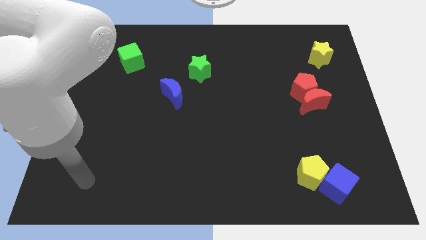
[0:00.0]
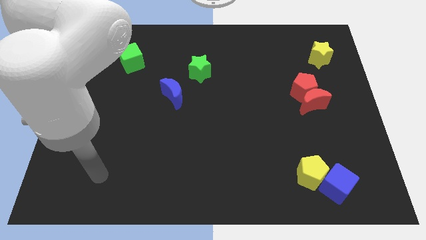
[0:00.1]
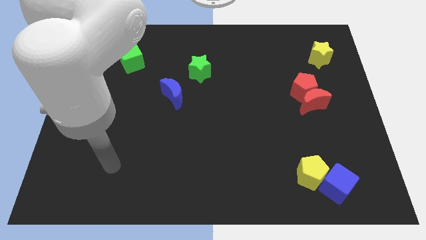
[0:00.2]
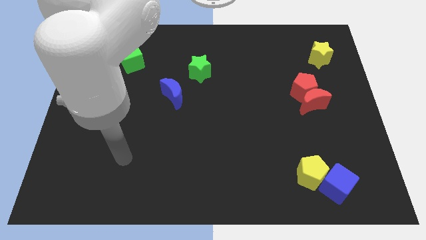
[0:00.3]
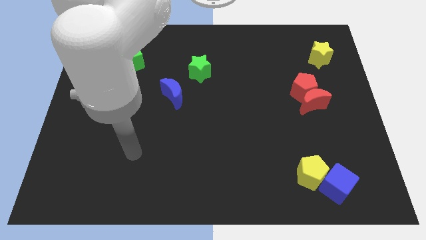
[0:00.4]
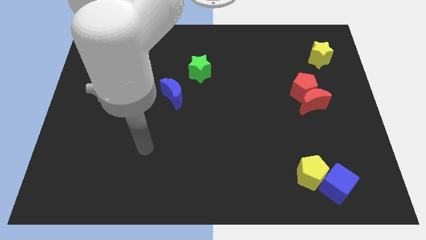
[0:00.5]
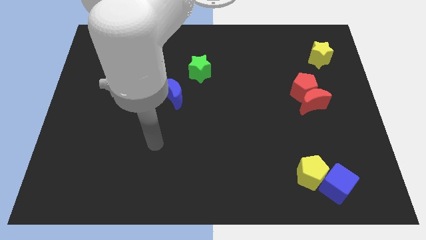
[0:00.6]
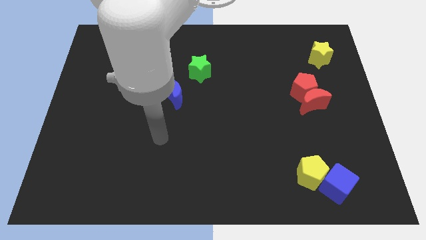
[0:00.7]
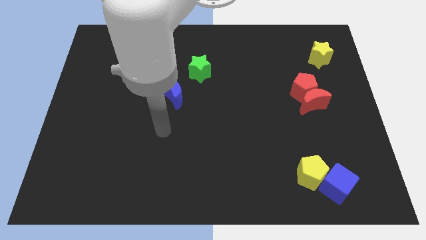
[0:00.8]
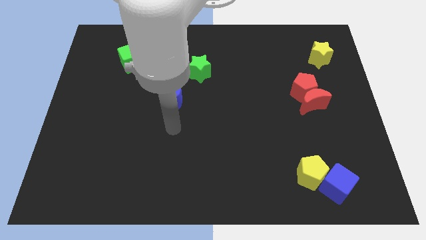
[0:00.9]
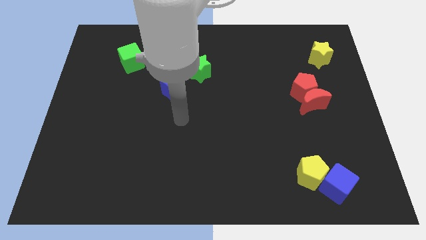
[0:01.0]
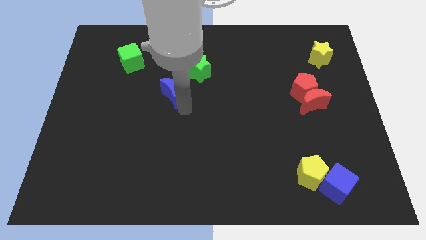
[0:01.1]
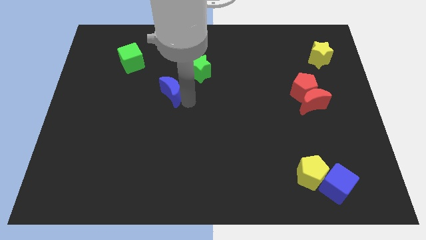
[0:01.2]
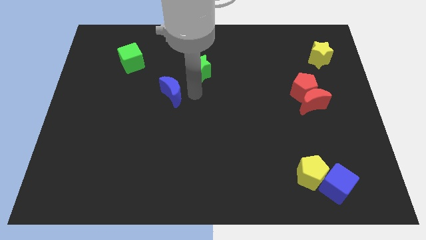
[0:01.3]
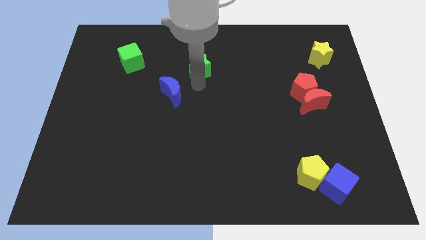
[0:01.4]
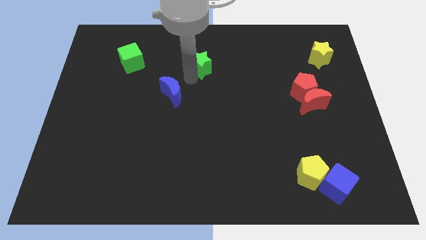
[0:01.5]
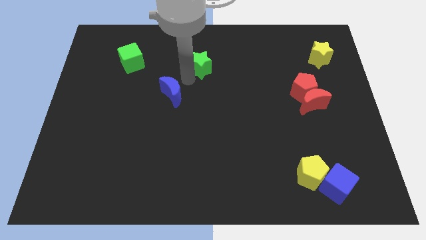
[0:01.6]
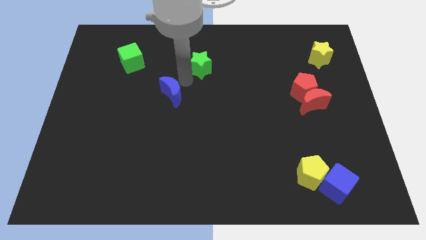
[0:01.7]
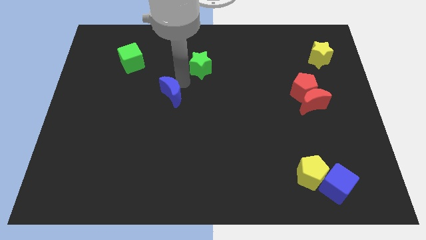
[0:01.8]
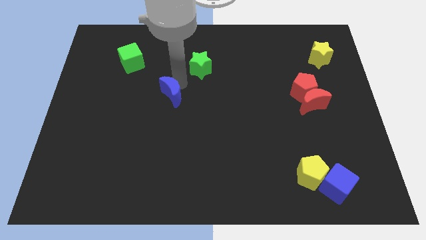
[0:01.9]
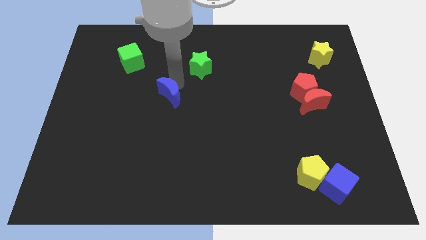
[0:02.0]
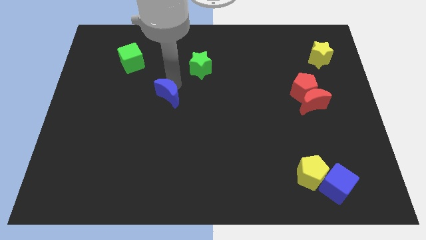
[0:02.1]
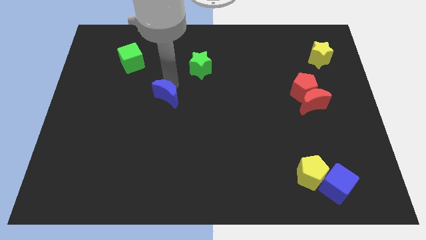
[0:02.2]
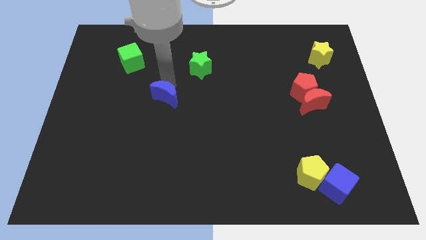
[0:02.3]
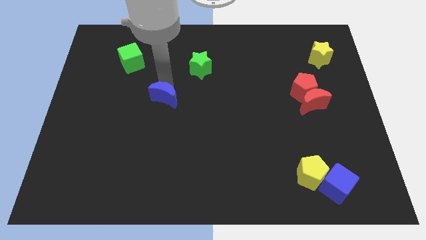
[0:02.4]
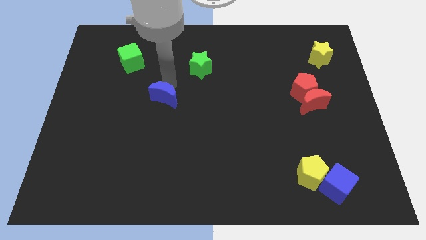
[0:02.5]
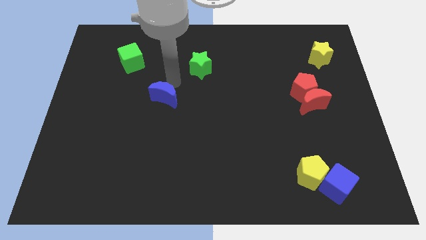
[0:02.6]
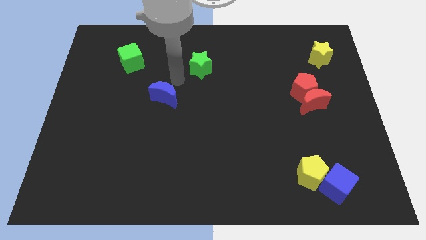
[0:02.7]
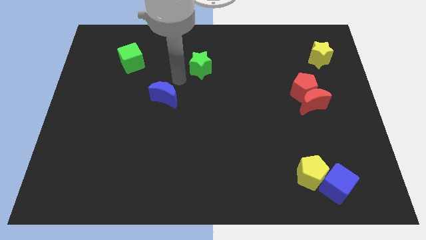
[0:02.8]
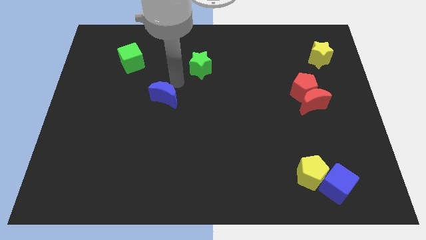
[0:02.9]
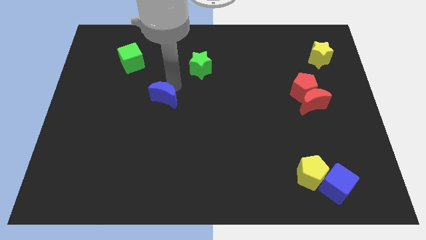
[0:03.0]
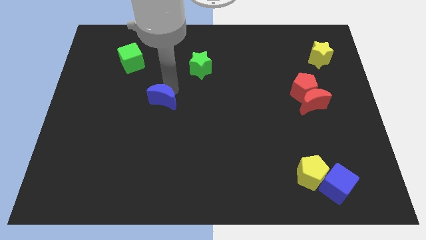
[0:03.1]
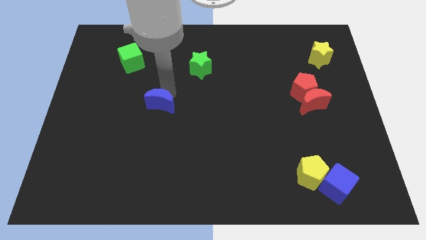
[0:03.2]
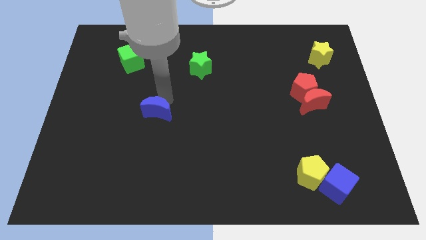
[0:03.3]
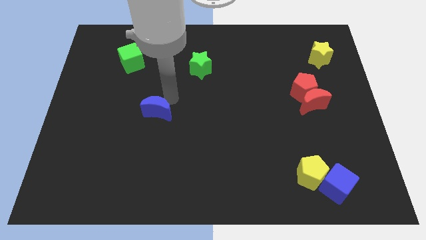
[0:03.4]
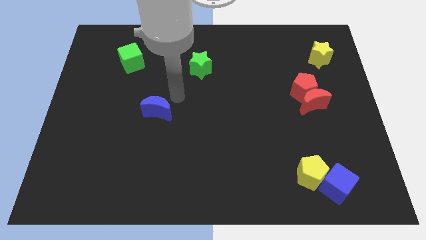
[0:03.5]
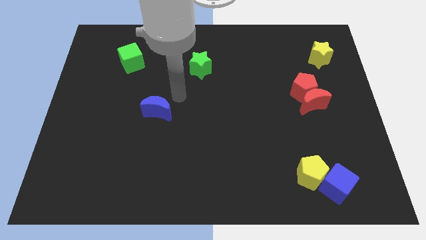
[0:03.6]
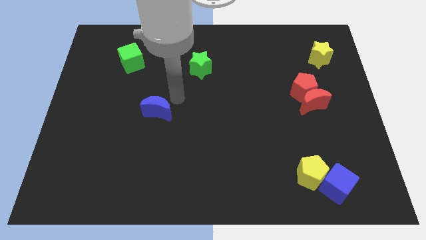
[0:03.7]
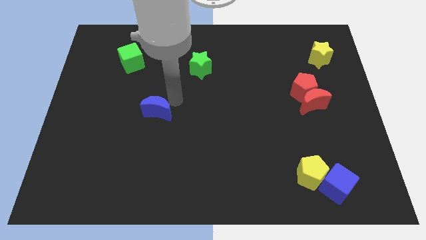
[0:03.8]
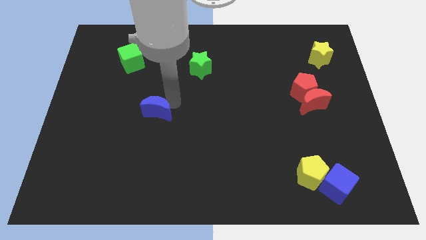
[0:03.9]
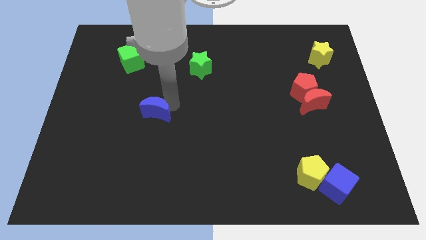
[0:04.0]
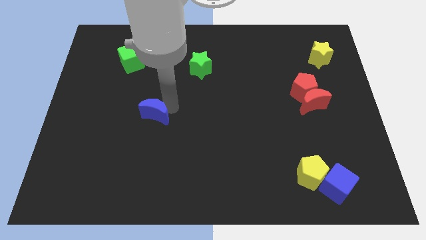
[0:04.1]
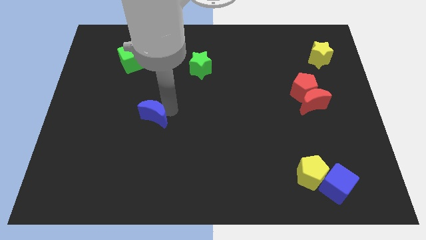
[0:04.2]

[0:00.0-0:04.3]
slightly push the blue moon diagonally down and to the left

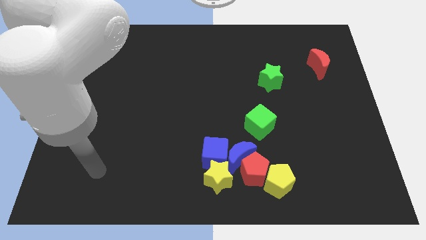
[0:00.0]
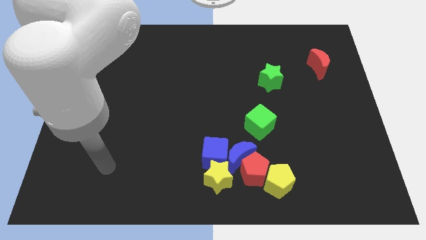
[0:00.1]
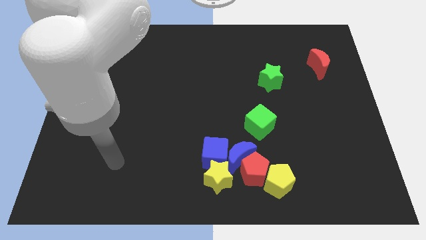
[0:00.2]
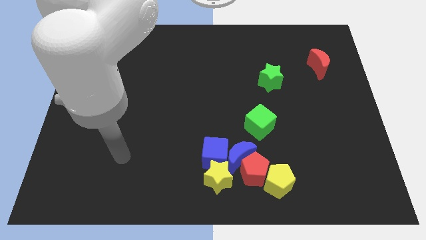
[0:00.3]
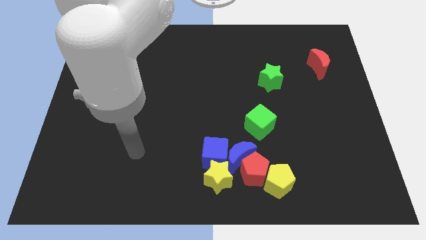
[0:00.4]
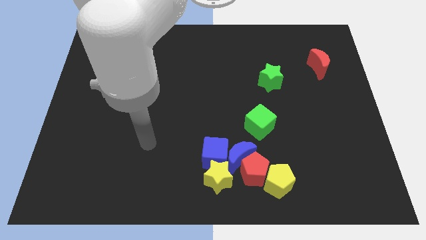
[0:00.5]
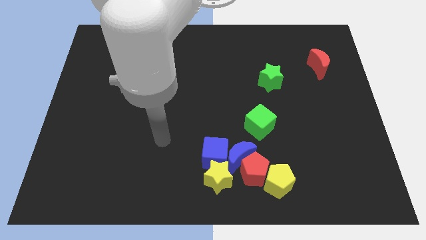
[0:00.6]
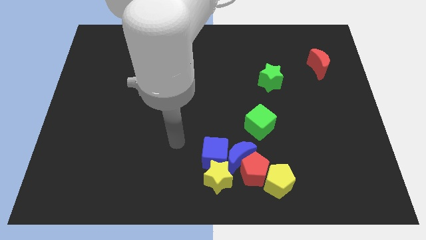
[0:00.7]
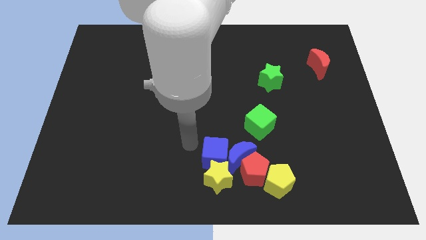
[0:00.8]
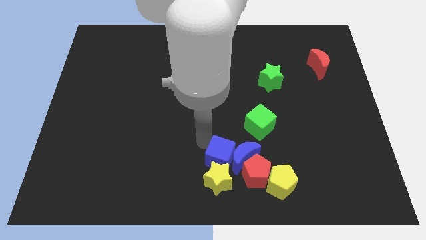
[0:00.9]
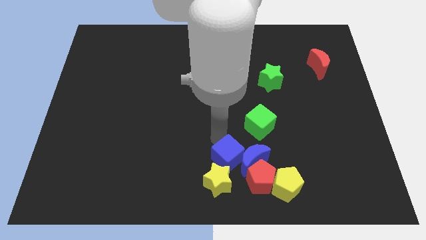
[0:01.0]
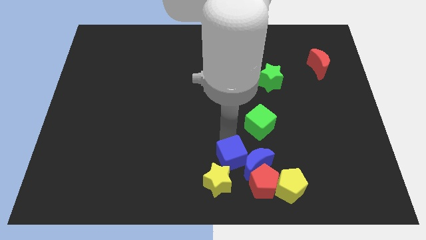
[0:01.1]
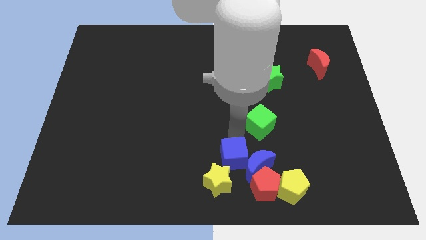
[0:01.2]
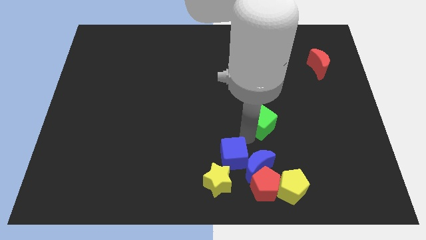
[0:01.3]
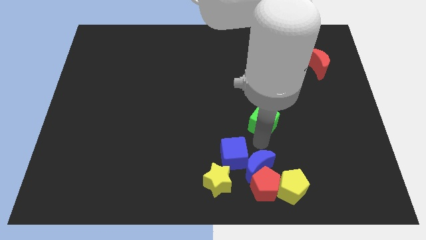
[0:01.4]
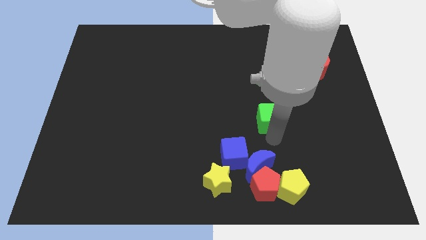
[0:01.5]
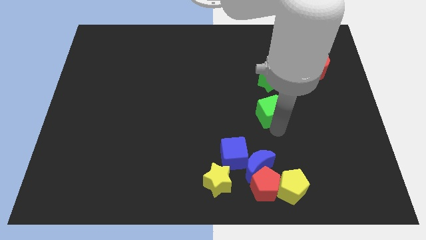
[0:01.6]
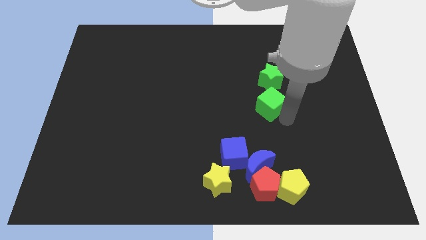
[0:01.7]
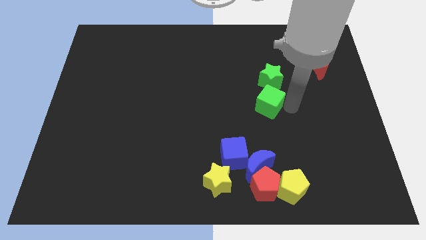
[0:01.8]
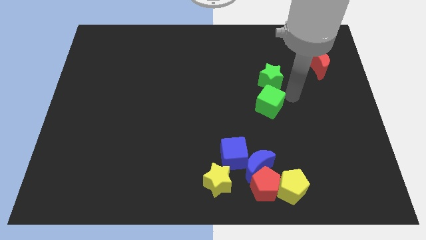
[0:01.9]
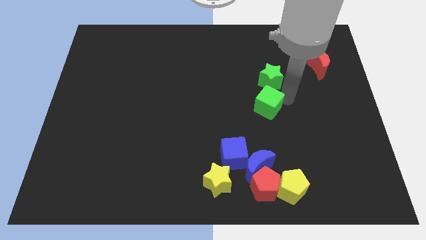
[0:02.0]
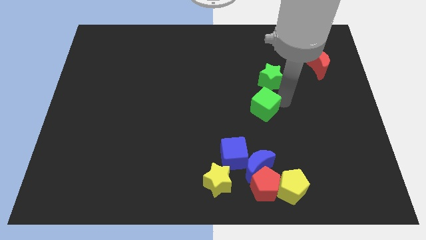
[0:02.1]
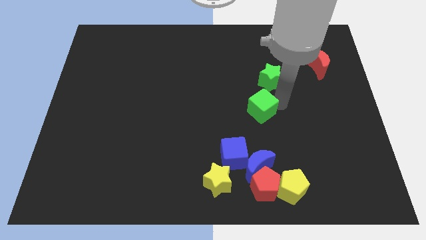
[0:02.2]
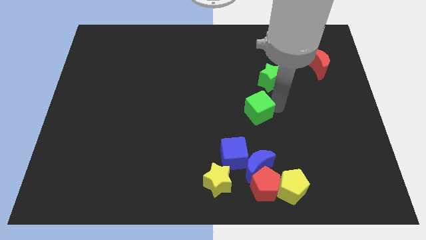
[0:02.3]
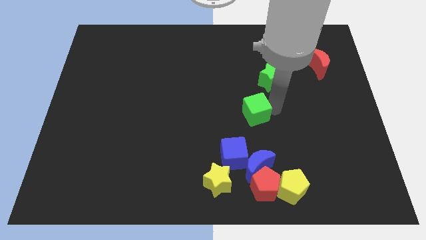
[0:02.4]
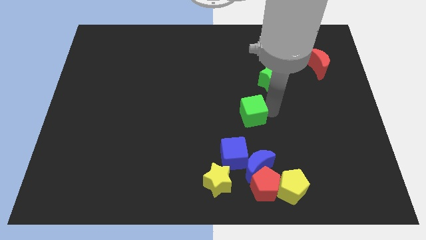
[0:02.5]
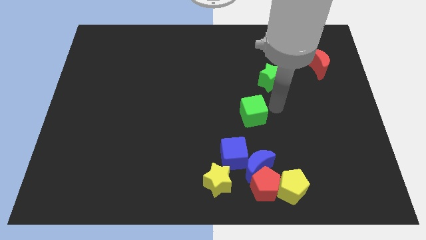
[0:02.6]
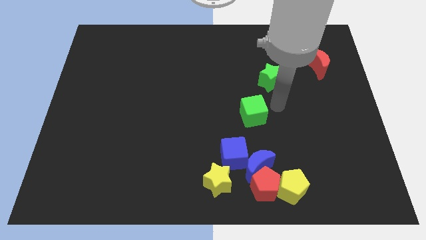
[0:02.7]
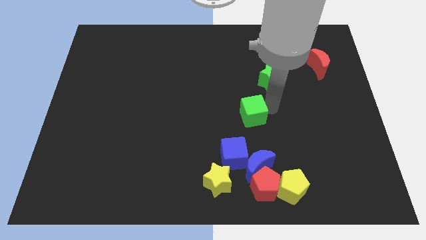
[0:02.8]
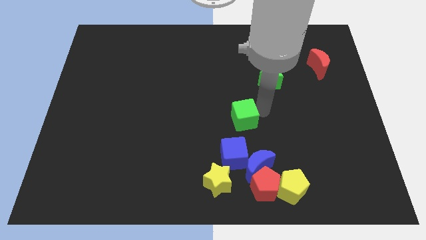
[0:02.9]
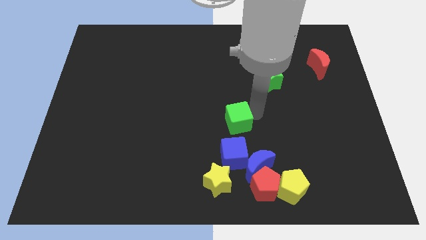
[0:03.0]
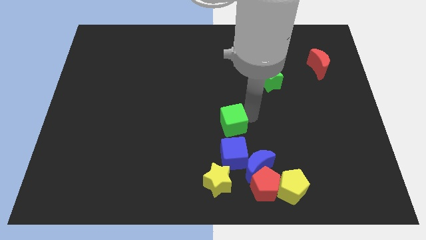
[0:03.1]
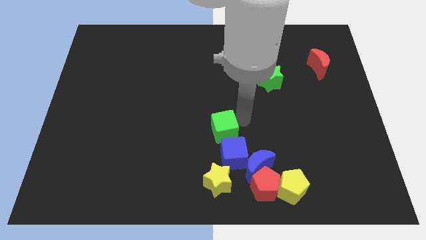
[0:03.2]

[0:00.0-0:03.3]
push the green cube to the left a bit
